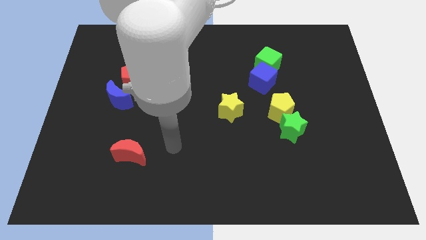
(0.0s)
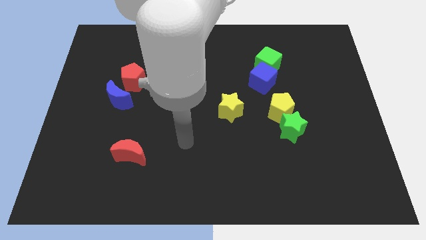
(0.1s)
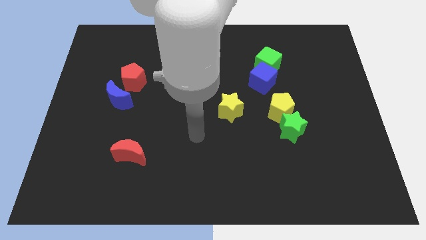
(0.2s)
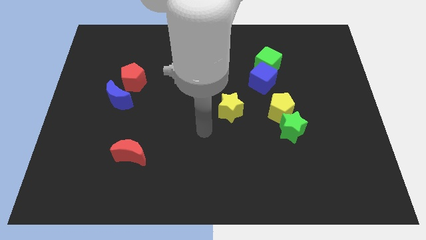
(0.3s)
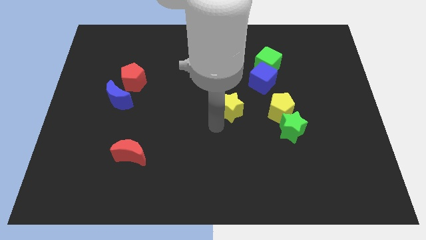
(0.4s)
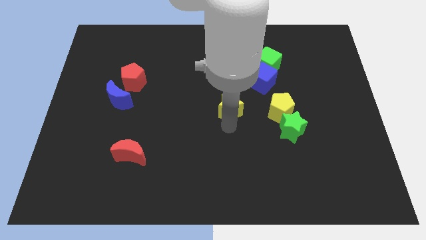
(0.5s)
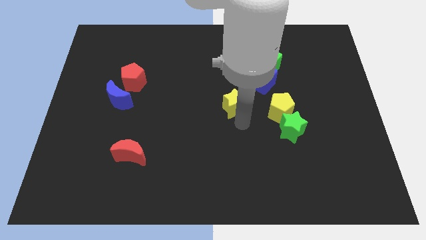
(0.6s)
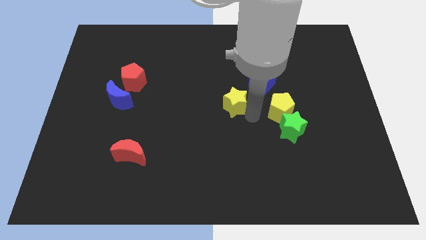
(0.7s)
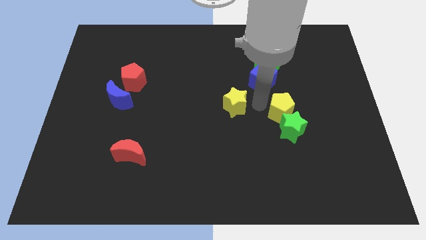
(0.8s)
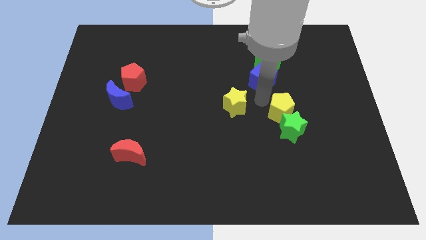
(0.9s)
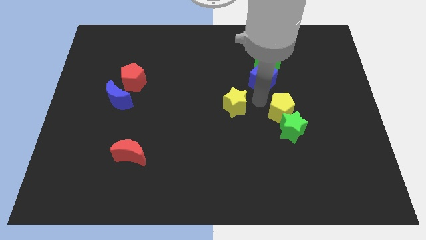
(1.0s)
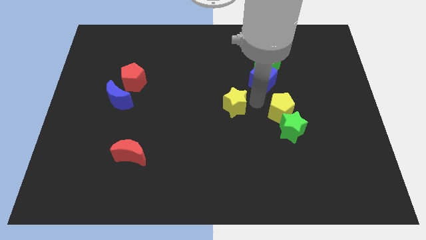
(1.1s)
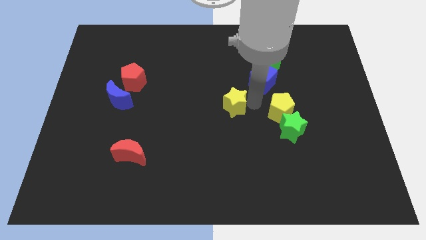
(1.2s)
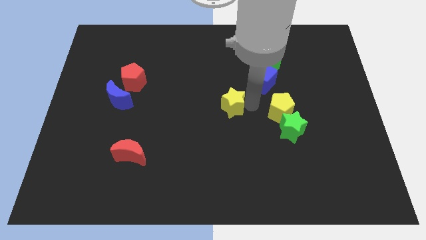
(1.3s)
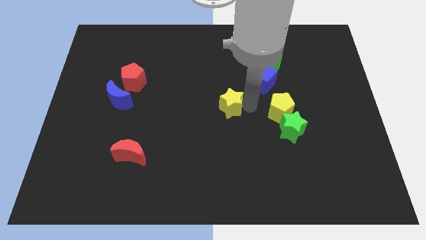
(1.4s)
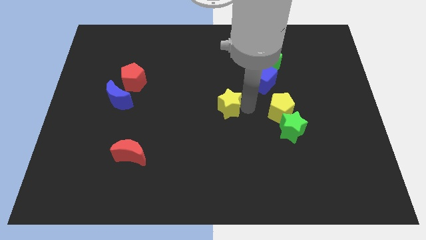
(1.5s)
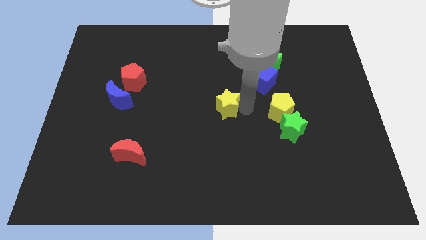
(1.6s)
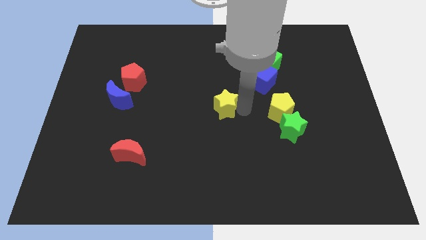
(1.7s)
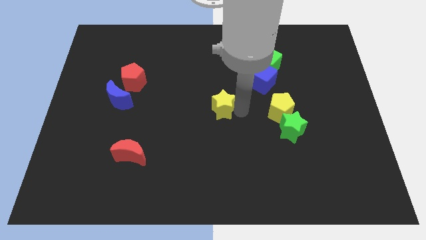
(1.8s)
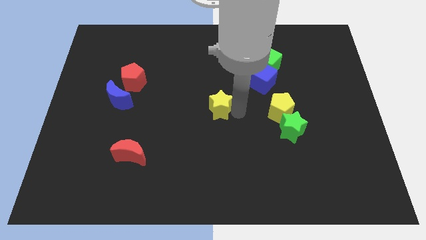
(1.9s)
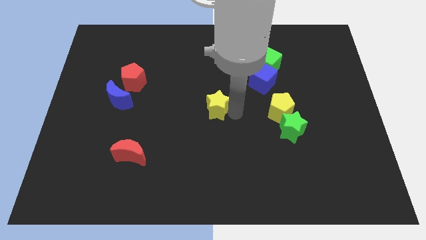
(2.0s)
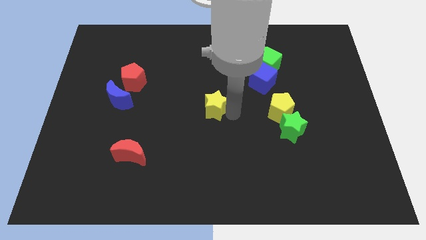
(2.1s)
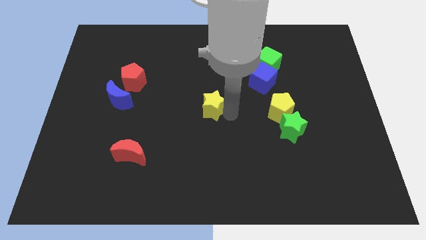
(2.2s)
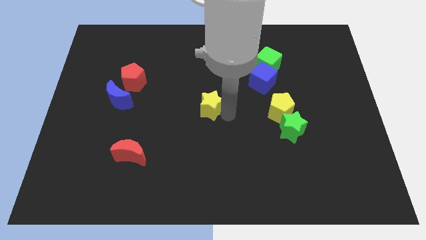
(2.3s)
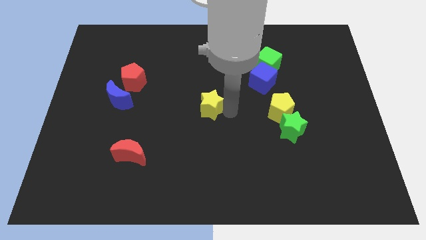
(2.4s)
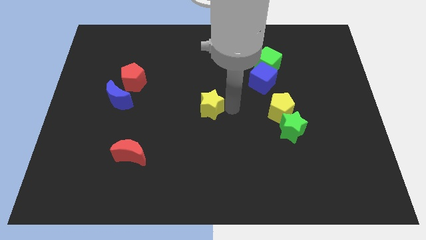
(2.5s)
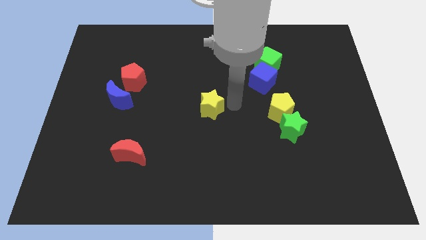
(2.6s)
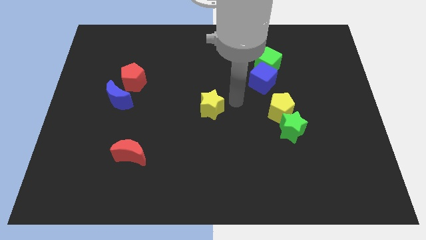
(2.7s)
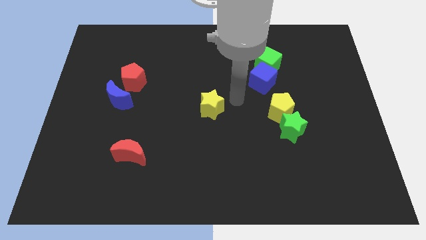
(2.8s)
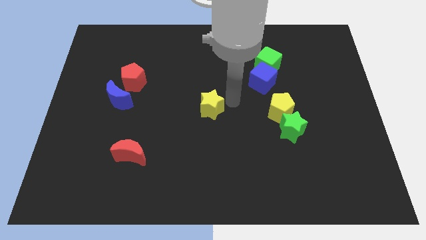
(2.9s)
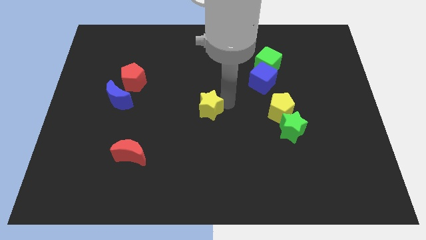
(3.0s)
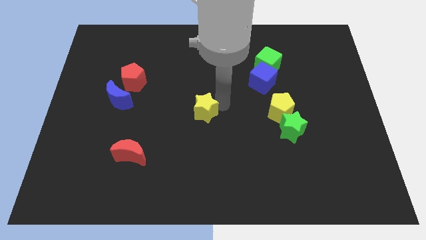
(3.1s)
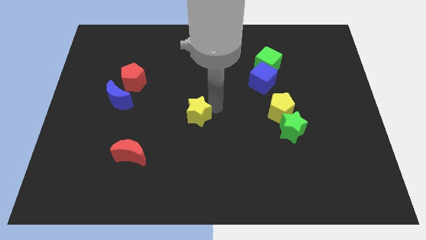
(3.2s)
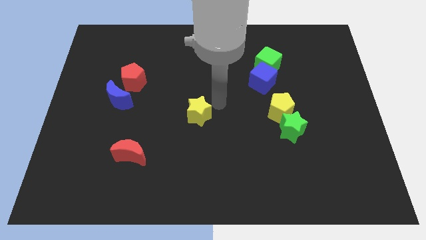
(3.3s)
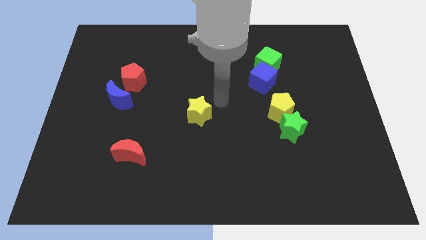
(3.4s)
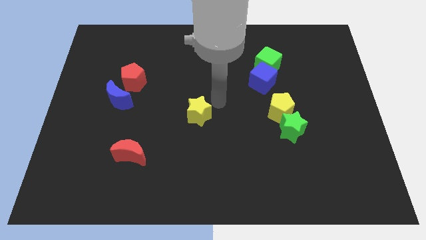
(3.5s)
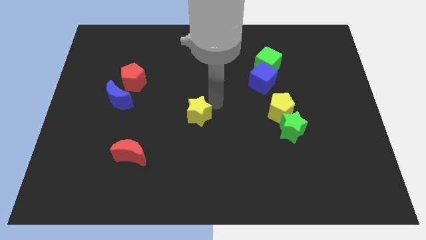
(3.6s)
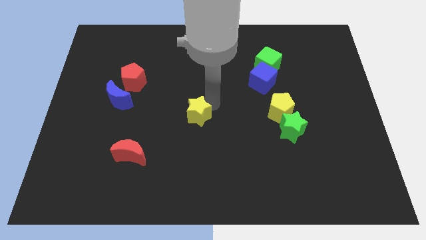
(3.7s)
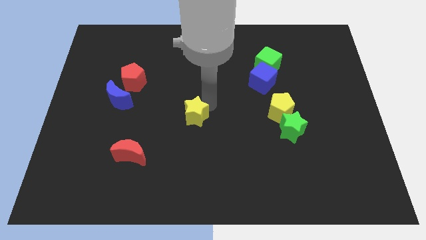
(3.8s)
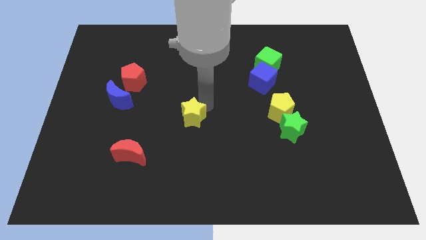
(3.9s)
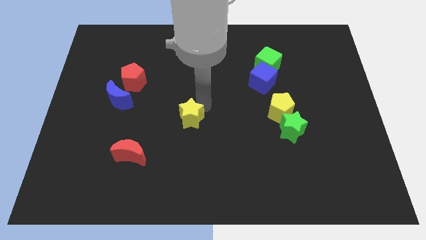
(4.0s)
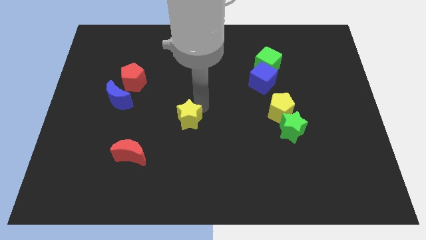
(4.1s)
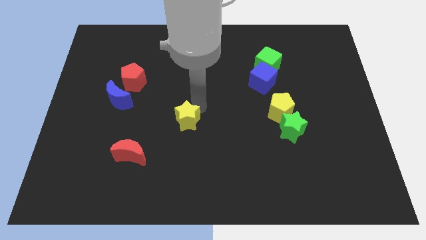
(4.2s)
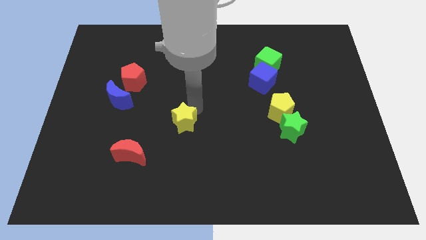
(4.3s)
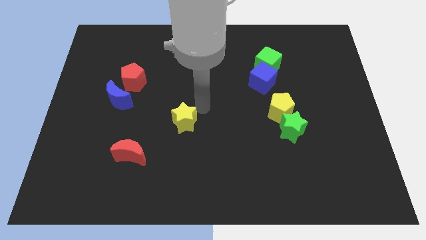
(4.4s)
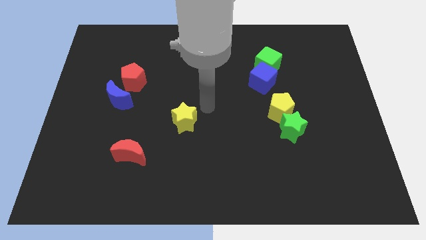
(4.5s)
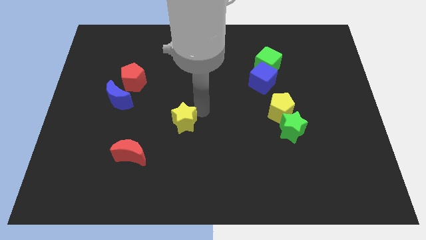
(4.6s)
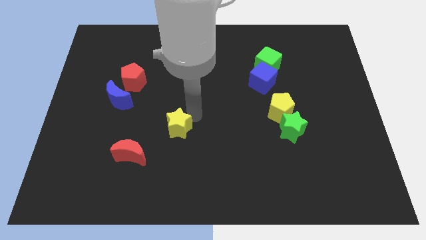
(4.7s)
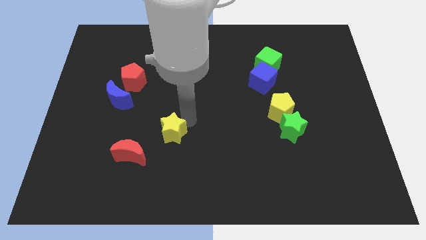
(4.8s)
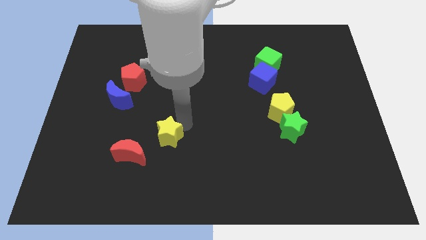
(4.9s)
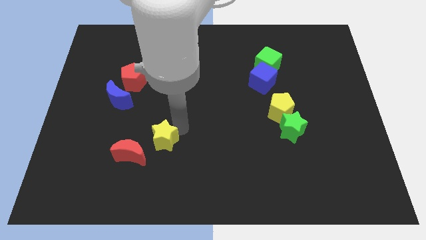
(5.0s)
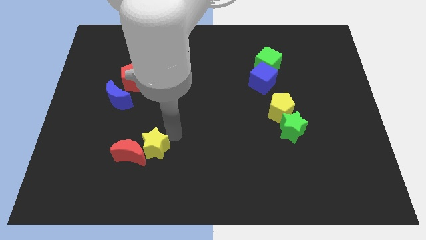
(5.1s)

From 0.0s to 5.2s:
push the yellow star next to the red moon

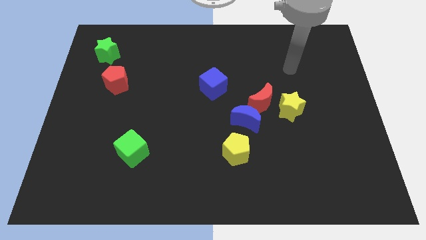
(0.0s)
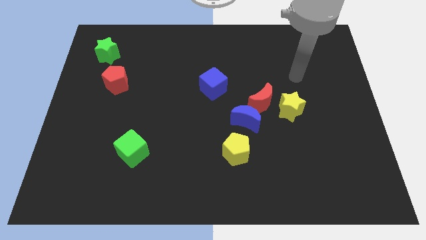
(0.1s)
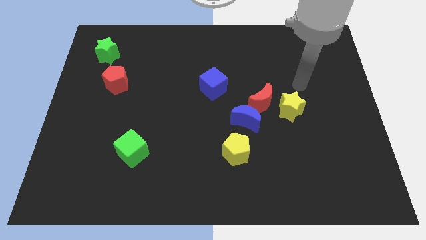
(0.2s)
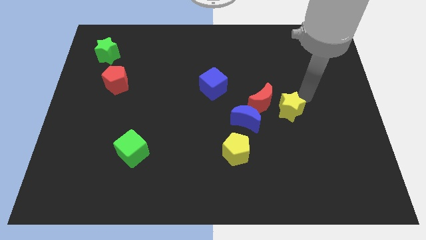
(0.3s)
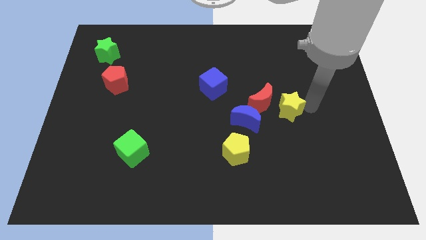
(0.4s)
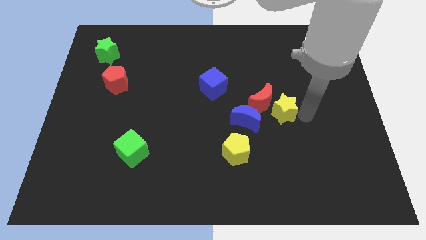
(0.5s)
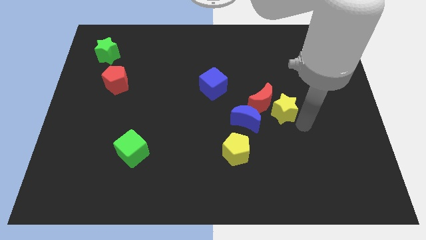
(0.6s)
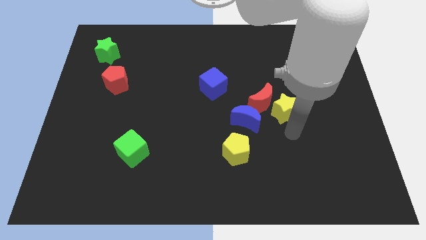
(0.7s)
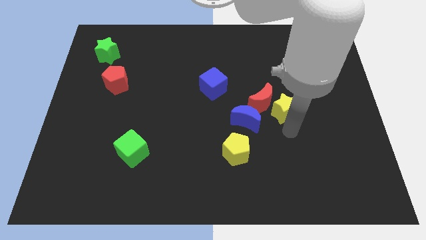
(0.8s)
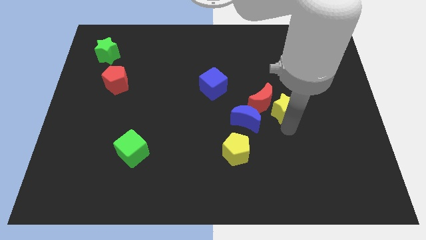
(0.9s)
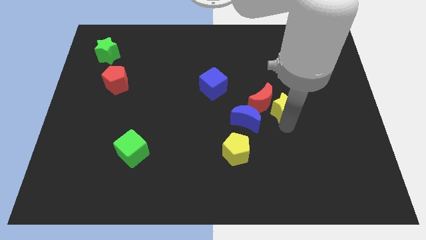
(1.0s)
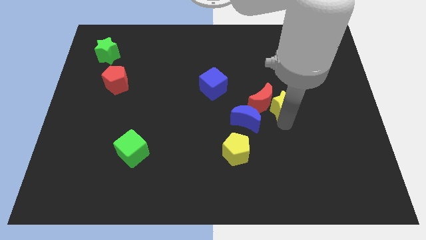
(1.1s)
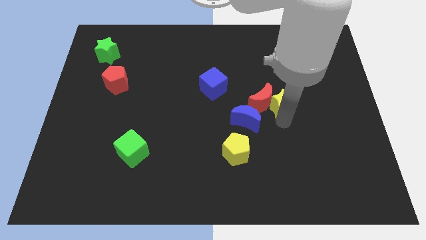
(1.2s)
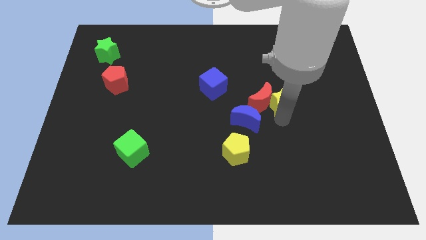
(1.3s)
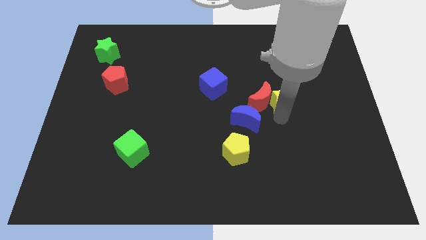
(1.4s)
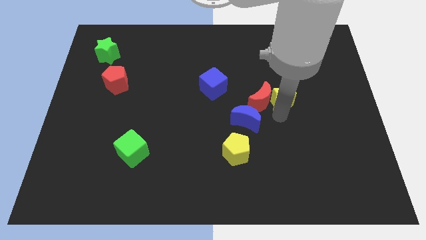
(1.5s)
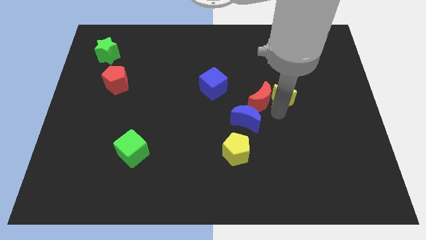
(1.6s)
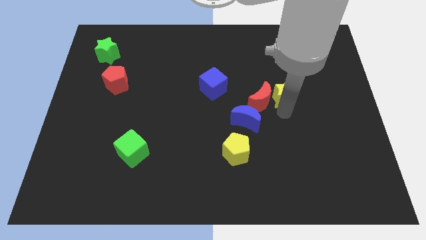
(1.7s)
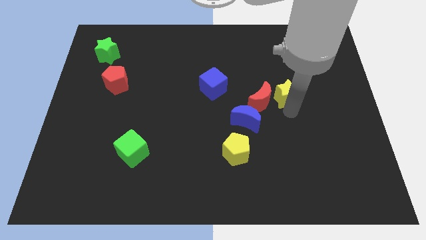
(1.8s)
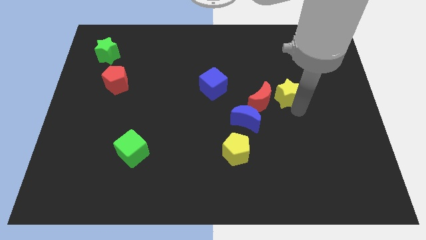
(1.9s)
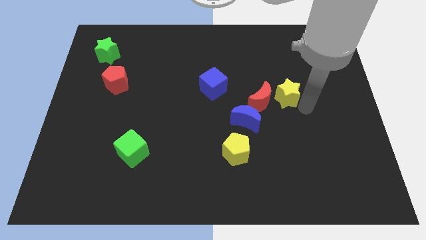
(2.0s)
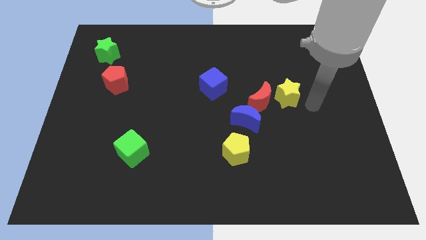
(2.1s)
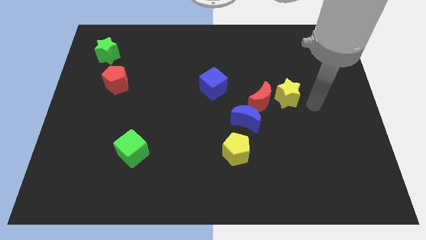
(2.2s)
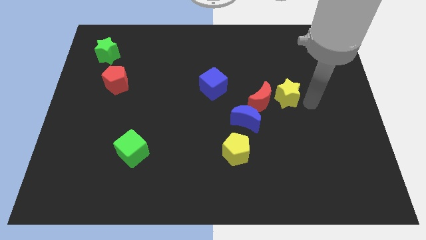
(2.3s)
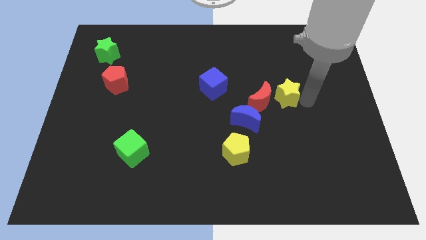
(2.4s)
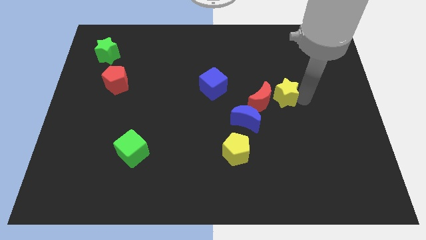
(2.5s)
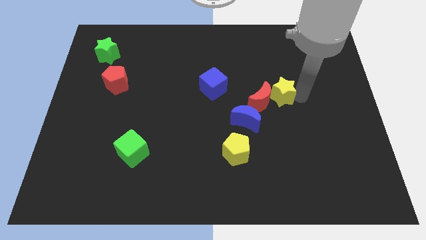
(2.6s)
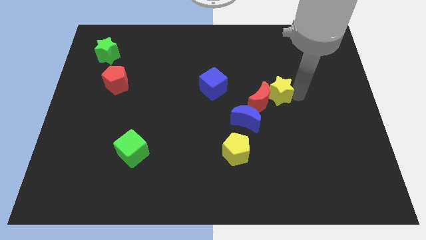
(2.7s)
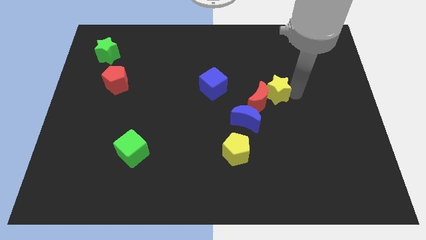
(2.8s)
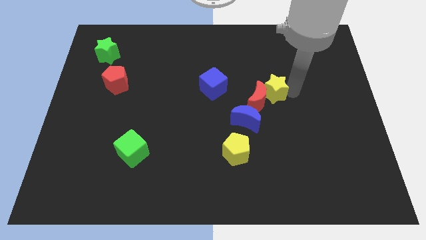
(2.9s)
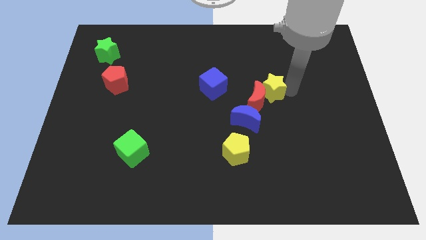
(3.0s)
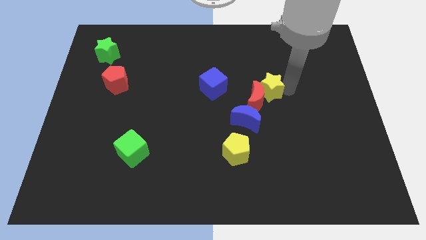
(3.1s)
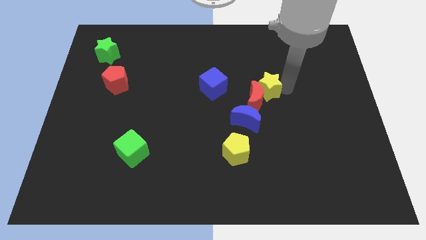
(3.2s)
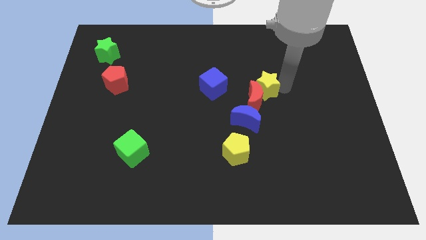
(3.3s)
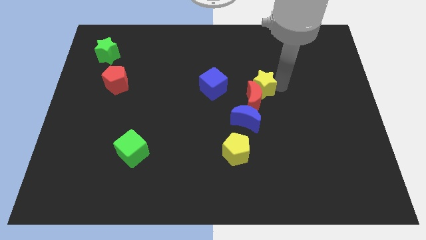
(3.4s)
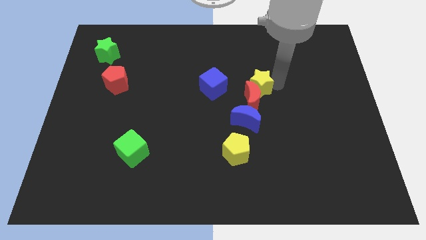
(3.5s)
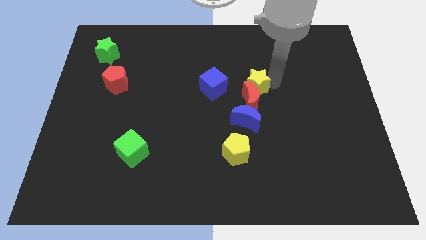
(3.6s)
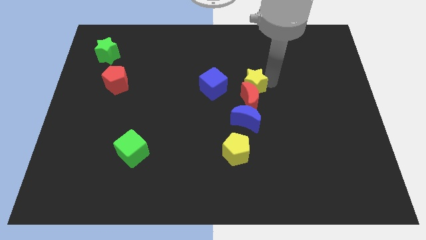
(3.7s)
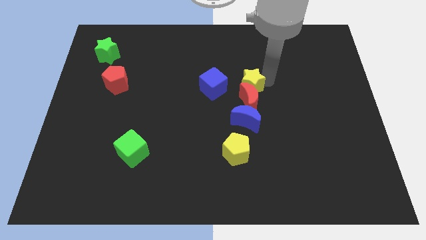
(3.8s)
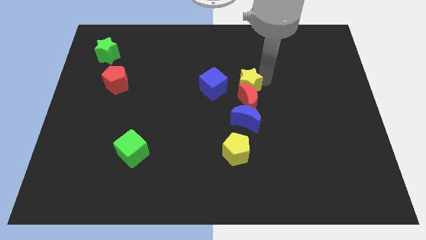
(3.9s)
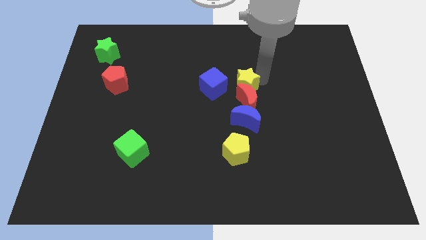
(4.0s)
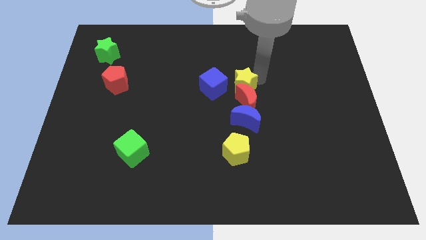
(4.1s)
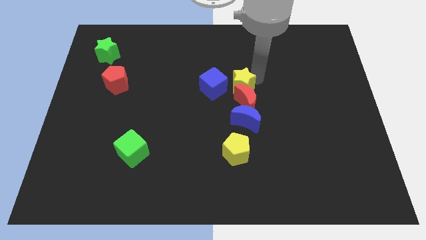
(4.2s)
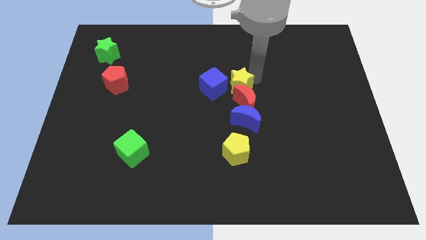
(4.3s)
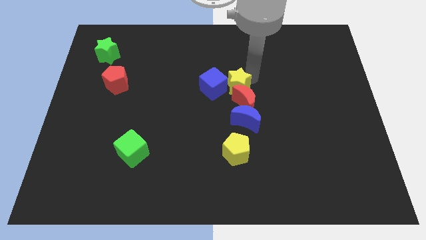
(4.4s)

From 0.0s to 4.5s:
put the yellow star next to the blue cube
